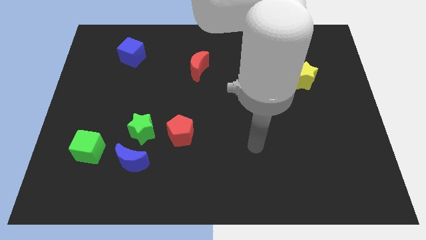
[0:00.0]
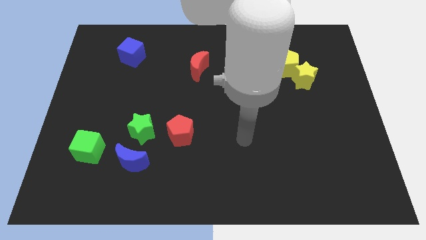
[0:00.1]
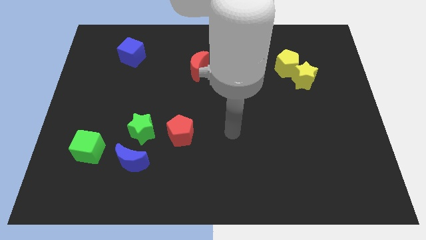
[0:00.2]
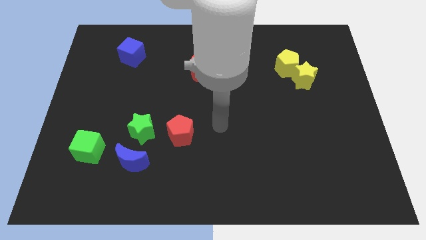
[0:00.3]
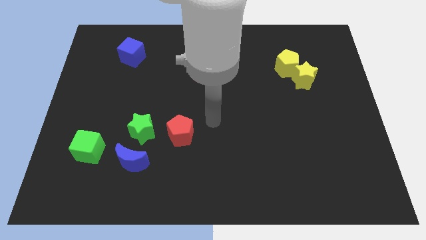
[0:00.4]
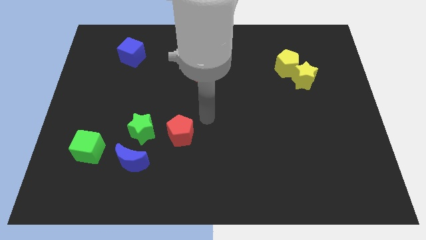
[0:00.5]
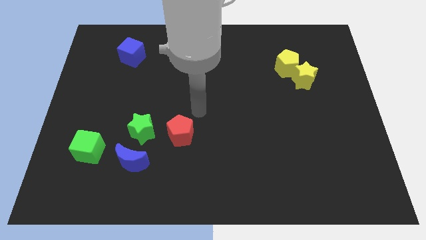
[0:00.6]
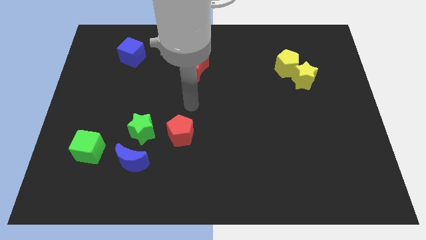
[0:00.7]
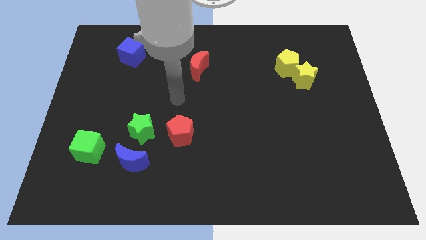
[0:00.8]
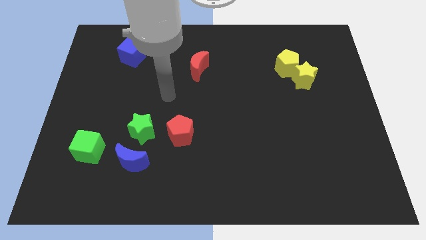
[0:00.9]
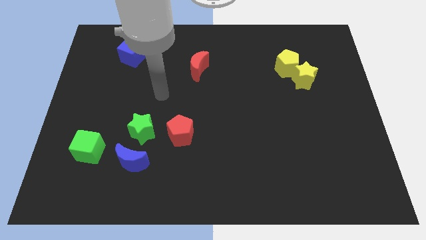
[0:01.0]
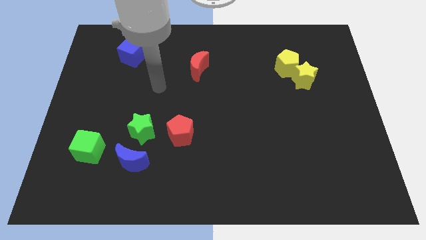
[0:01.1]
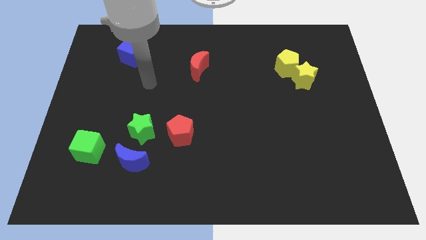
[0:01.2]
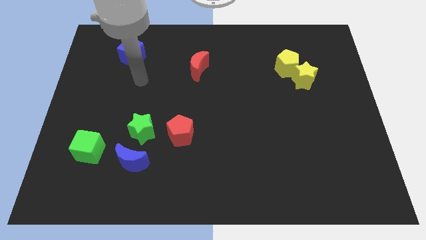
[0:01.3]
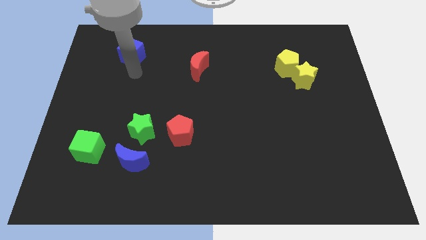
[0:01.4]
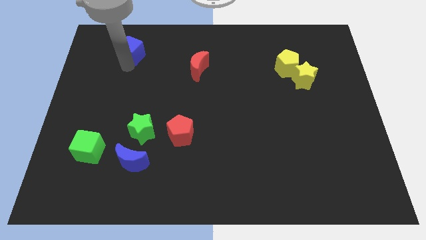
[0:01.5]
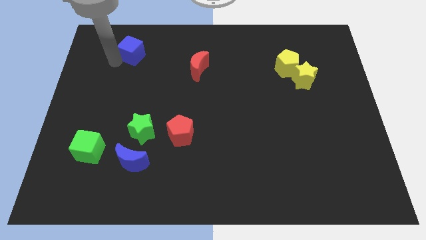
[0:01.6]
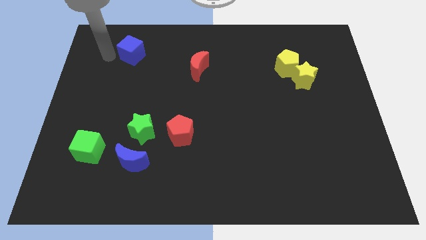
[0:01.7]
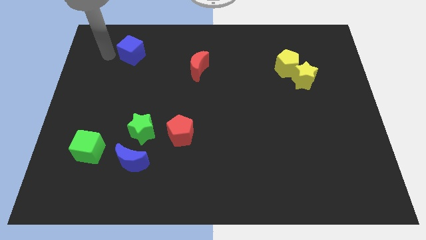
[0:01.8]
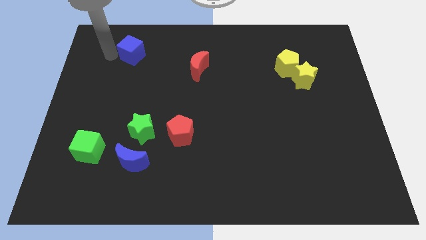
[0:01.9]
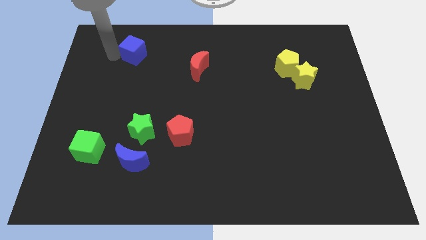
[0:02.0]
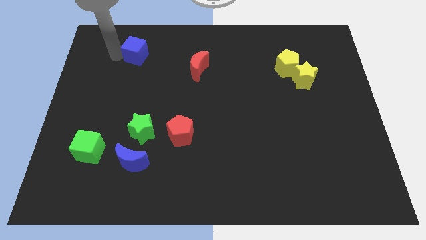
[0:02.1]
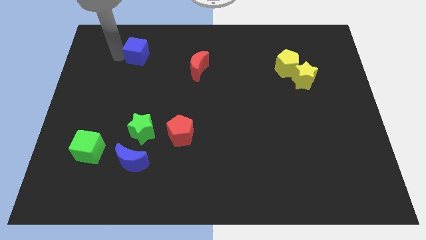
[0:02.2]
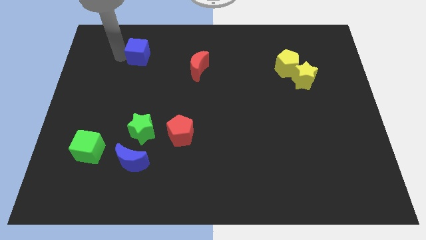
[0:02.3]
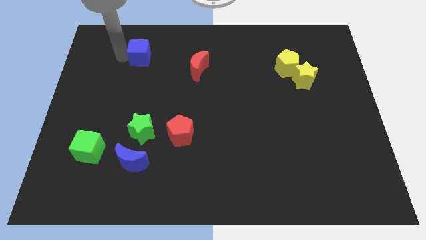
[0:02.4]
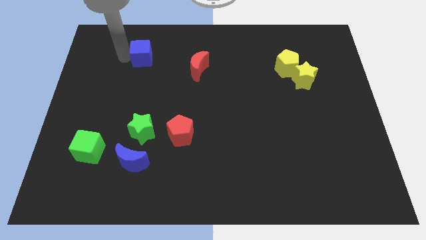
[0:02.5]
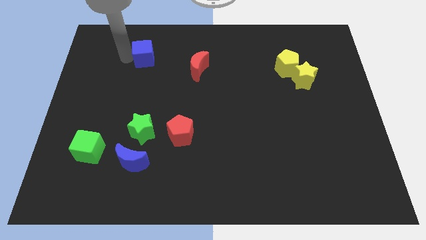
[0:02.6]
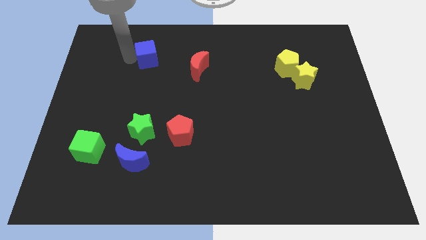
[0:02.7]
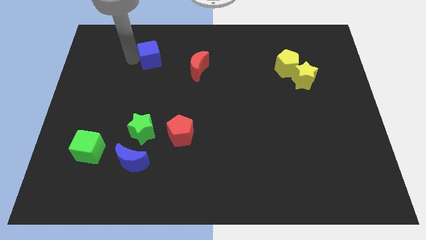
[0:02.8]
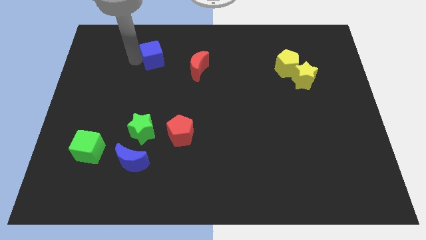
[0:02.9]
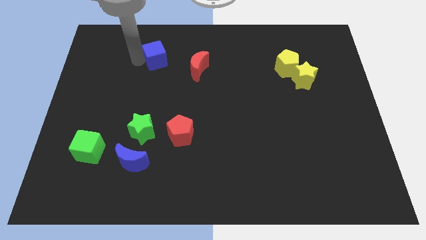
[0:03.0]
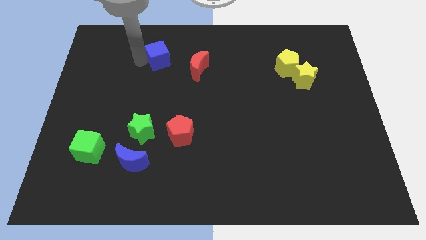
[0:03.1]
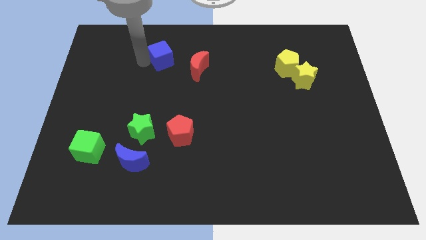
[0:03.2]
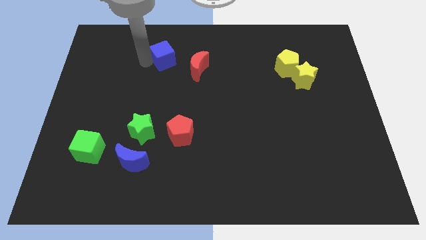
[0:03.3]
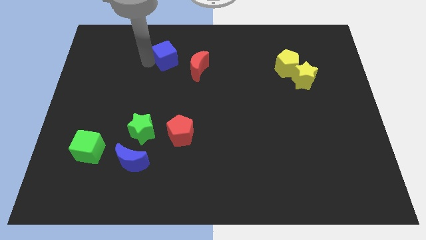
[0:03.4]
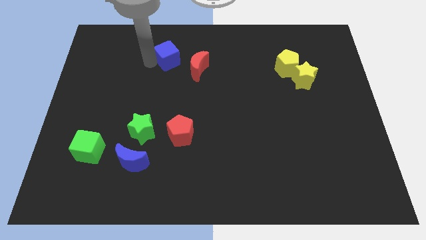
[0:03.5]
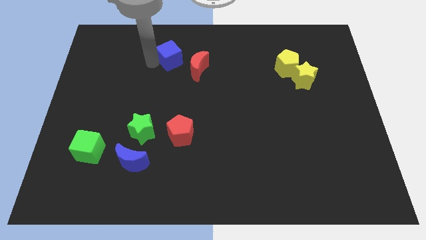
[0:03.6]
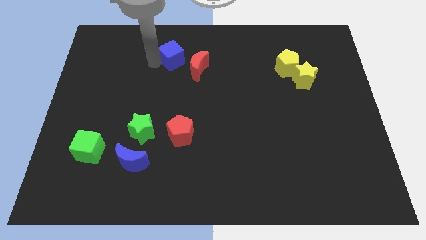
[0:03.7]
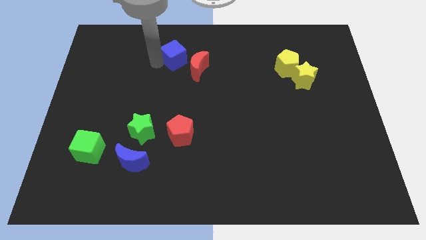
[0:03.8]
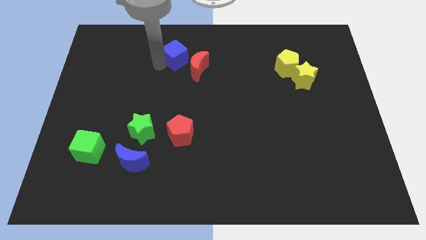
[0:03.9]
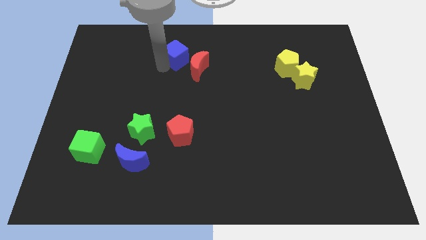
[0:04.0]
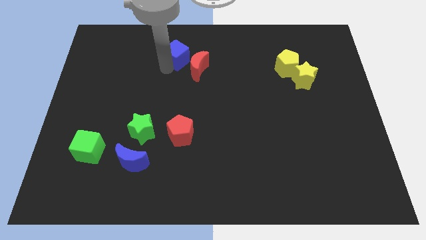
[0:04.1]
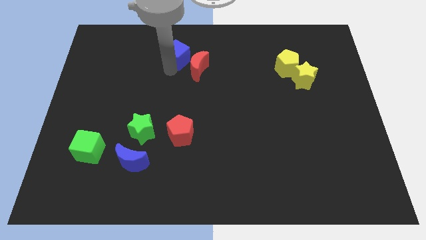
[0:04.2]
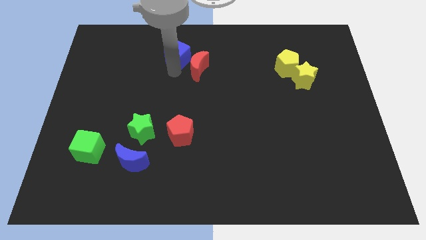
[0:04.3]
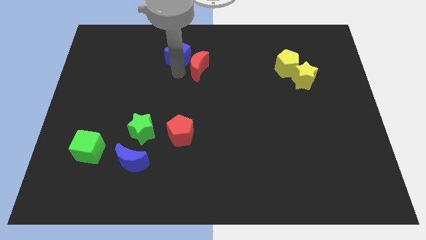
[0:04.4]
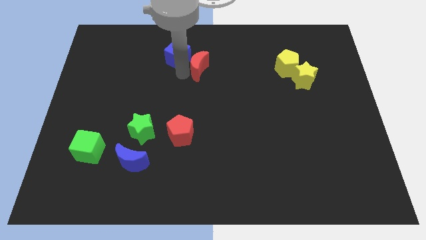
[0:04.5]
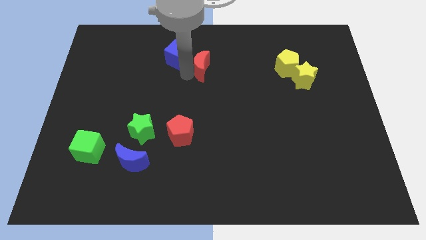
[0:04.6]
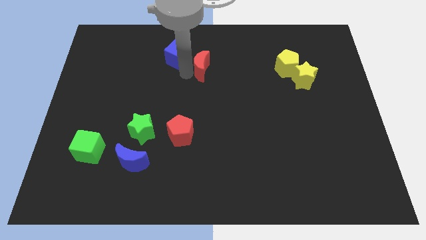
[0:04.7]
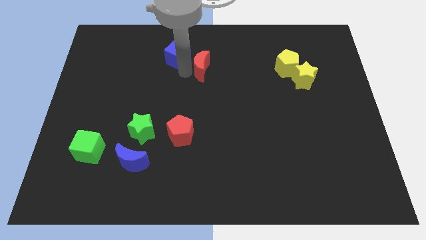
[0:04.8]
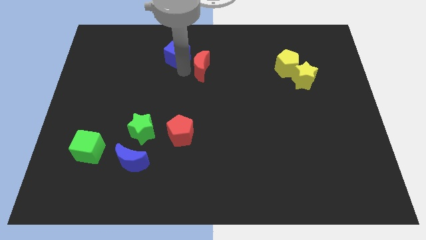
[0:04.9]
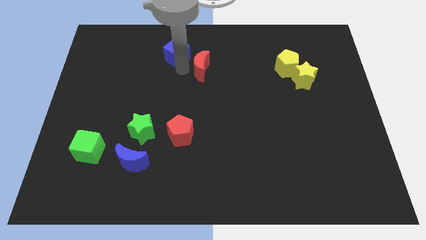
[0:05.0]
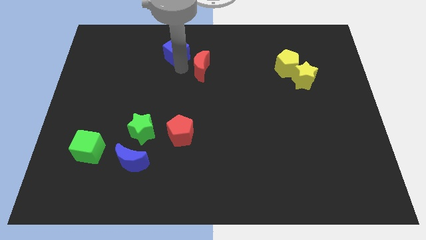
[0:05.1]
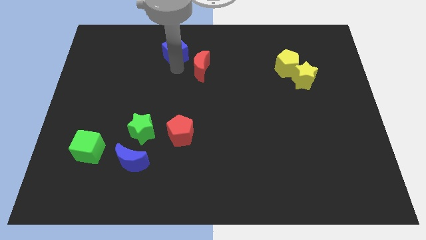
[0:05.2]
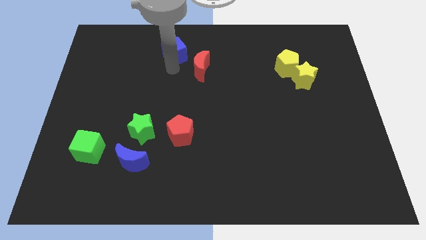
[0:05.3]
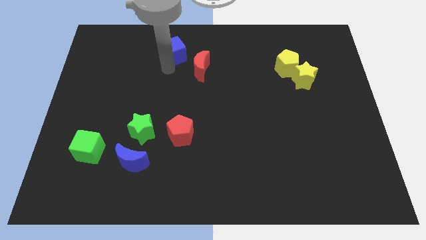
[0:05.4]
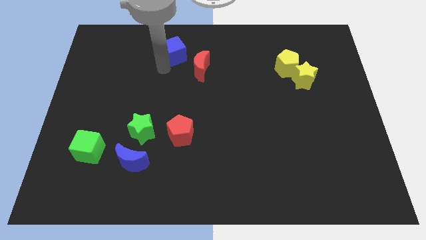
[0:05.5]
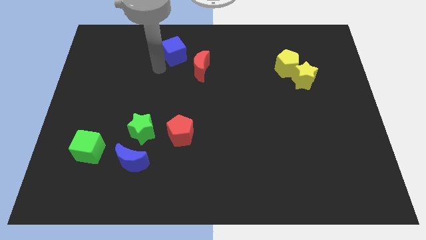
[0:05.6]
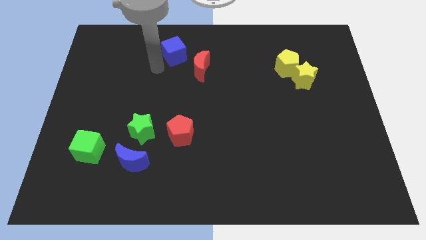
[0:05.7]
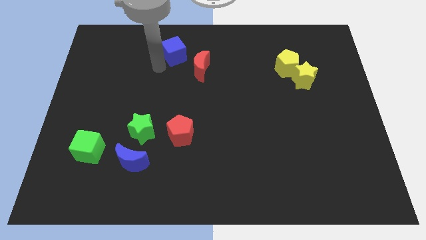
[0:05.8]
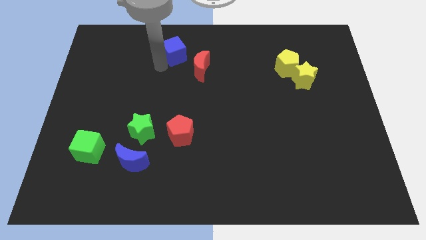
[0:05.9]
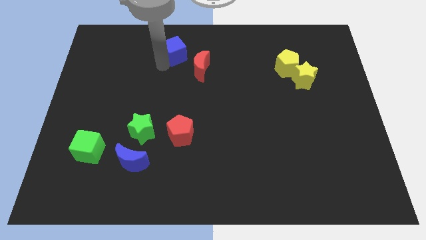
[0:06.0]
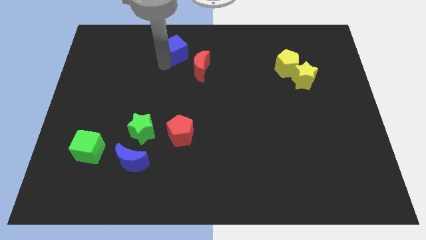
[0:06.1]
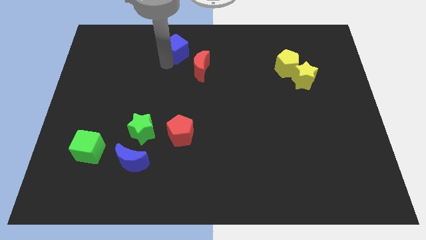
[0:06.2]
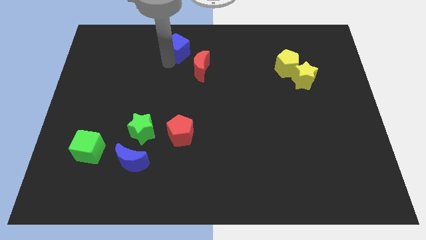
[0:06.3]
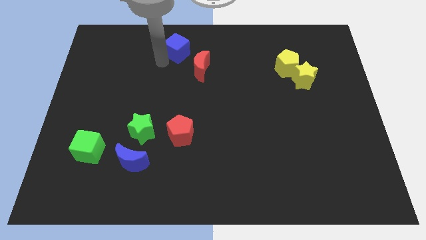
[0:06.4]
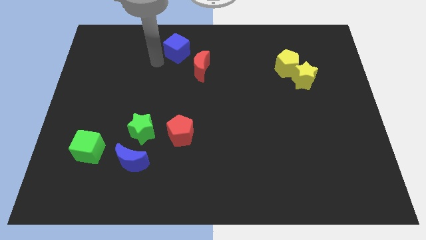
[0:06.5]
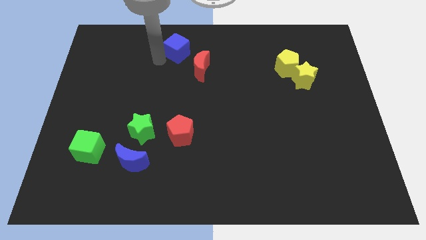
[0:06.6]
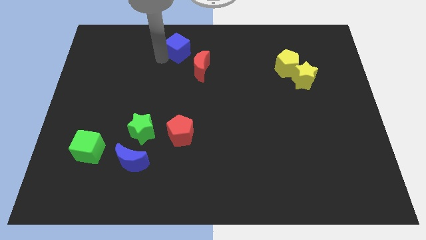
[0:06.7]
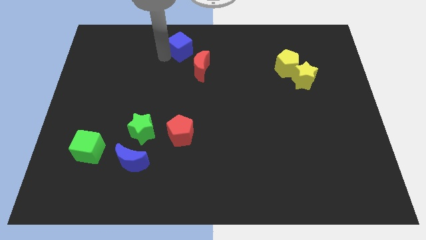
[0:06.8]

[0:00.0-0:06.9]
move the blue cube to the top
